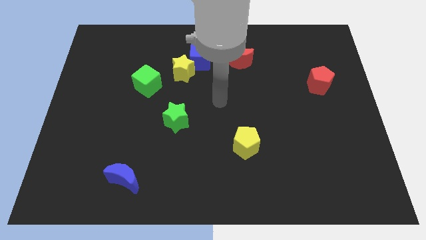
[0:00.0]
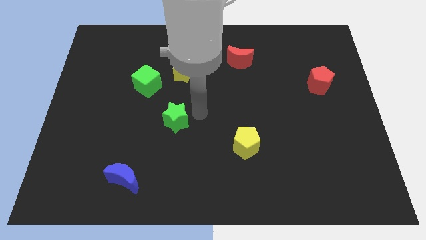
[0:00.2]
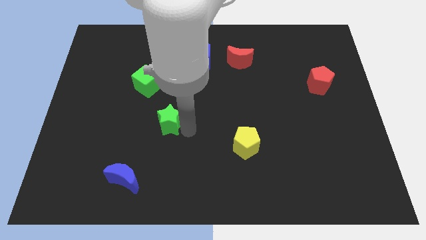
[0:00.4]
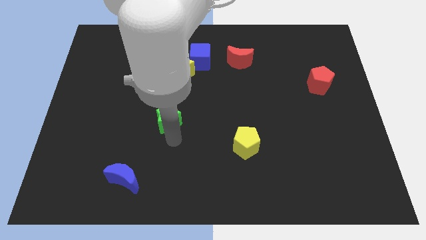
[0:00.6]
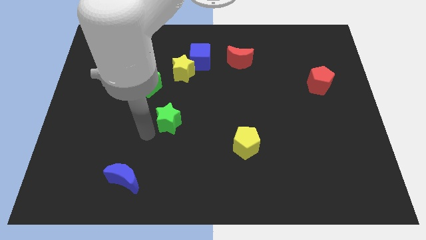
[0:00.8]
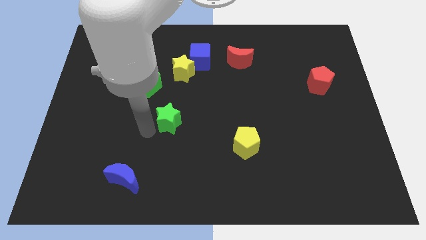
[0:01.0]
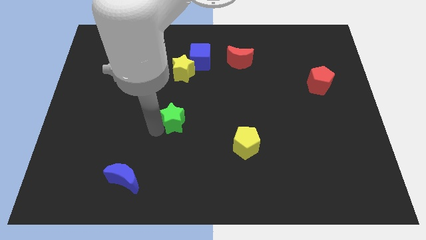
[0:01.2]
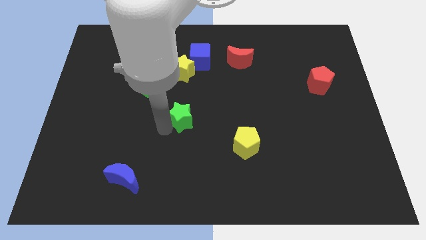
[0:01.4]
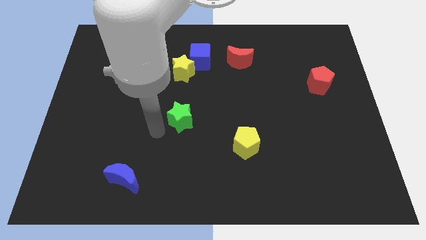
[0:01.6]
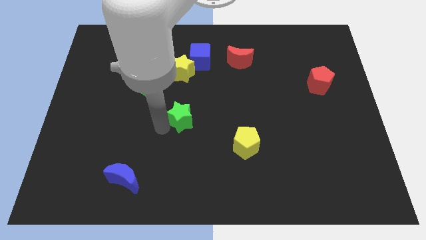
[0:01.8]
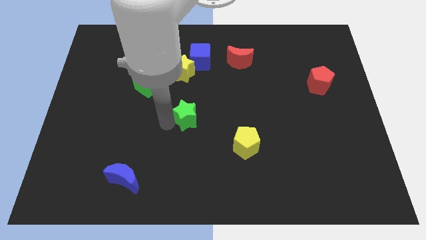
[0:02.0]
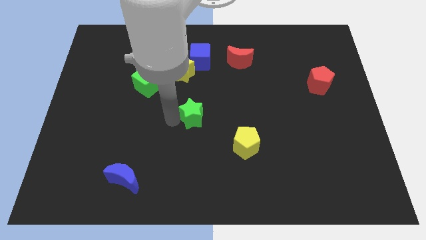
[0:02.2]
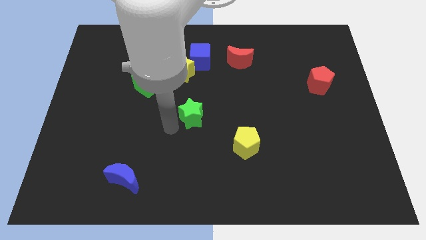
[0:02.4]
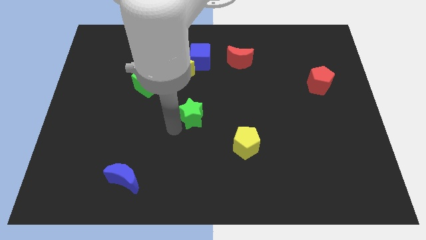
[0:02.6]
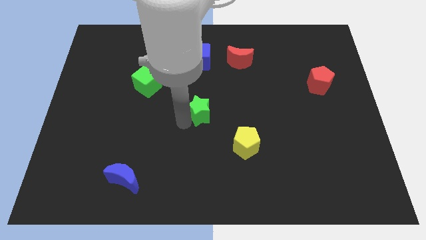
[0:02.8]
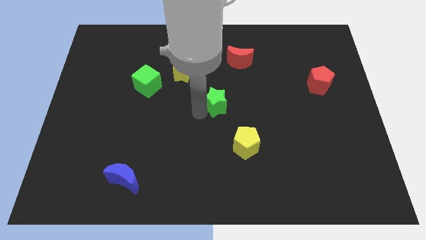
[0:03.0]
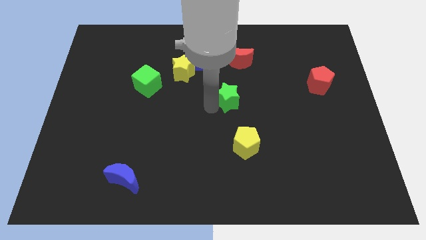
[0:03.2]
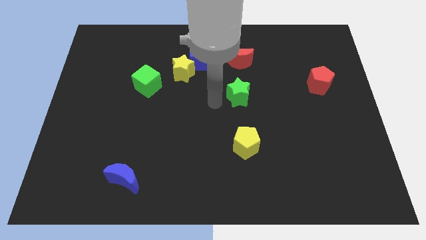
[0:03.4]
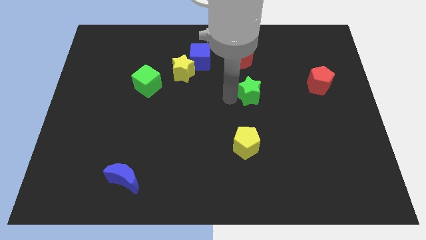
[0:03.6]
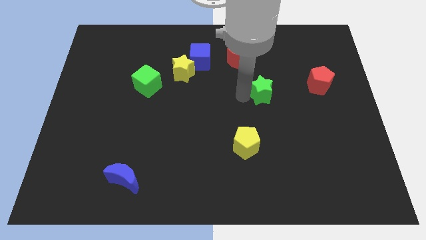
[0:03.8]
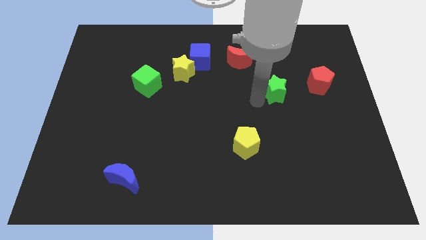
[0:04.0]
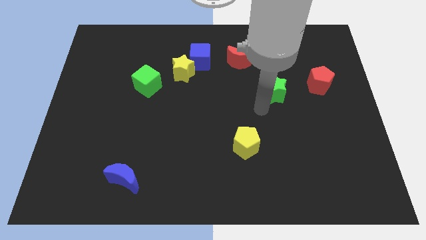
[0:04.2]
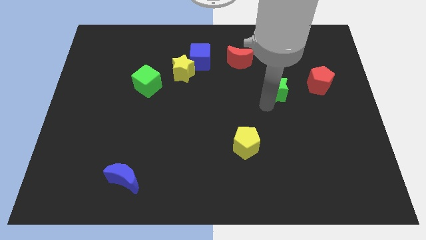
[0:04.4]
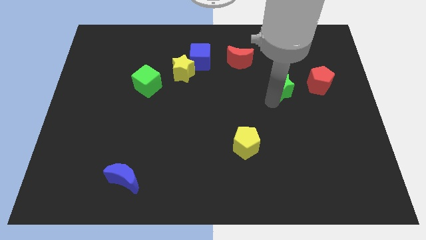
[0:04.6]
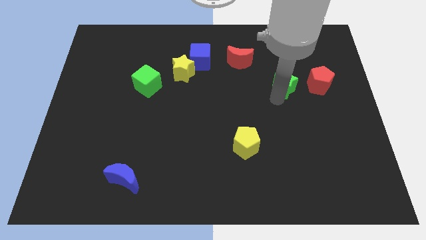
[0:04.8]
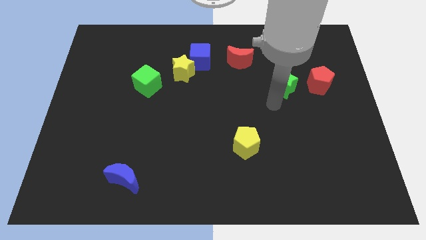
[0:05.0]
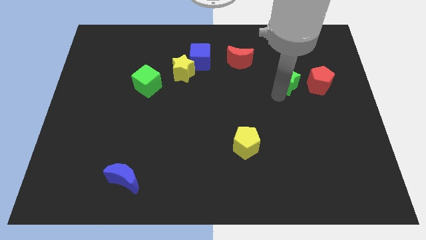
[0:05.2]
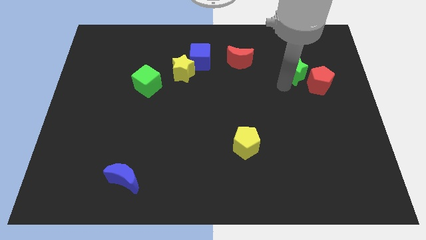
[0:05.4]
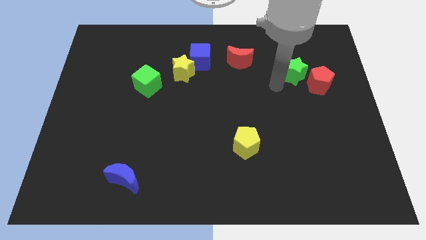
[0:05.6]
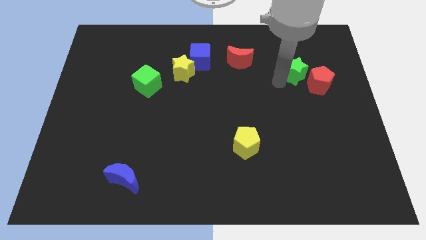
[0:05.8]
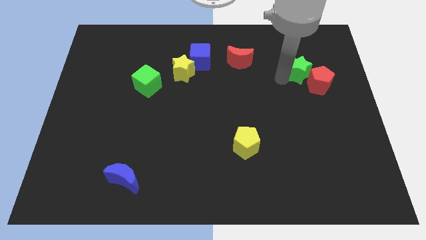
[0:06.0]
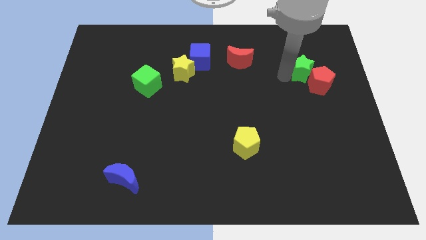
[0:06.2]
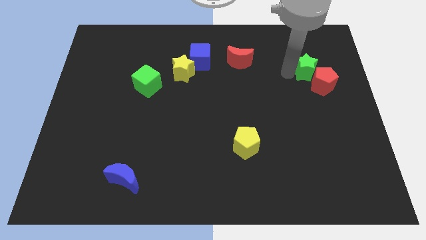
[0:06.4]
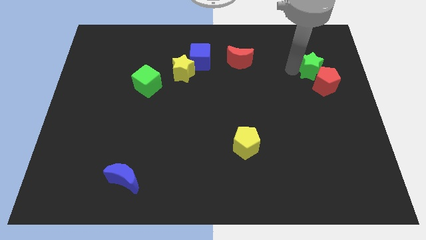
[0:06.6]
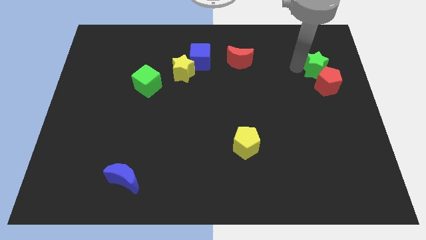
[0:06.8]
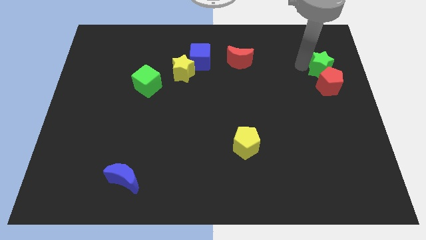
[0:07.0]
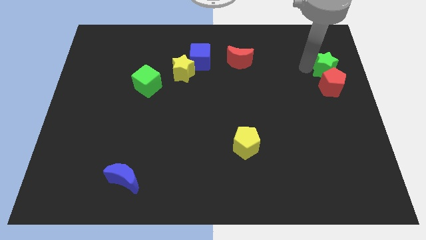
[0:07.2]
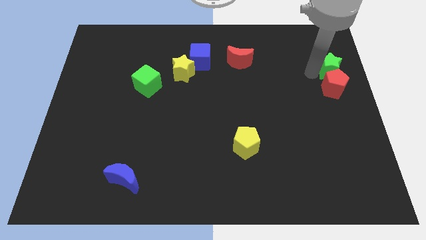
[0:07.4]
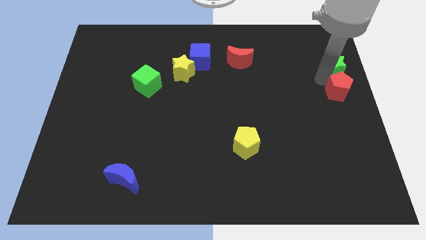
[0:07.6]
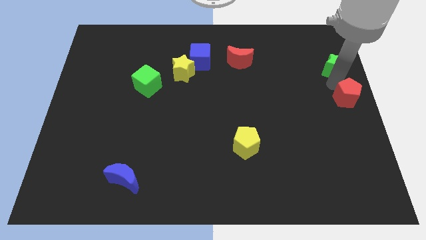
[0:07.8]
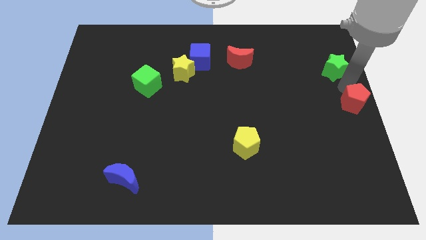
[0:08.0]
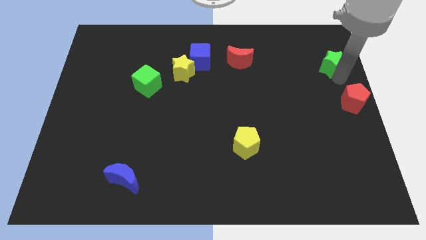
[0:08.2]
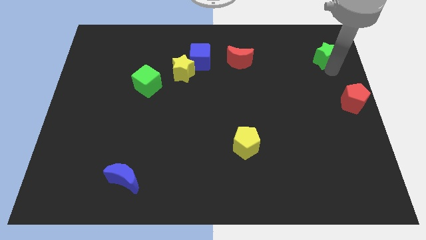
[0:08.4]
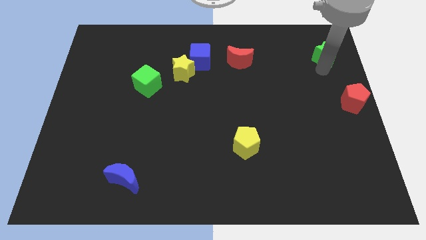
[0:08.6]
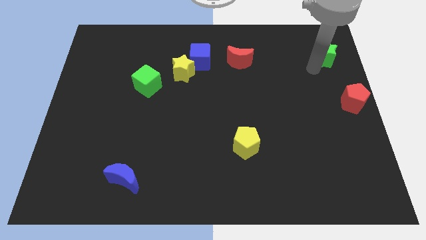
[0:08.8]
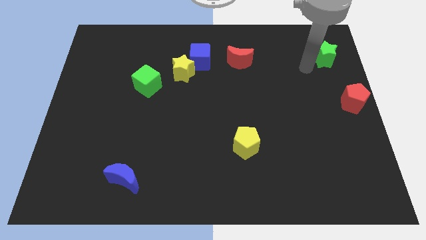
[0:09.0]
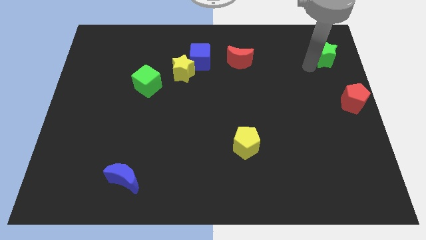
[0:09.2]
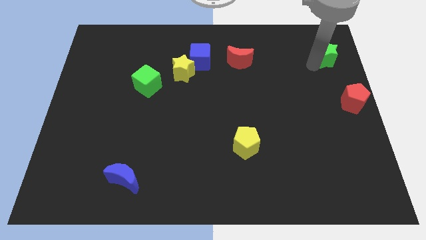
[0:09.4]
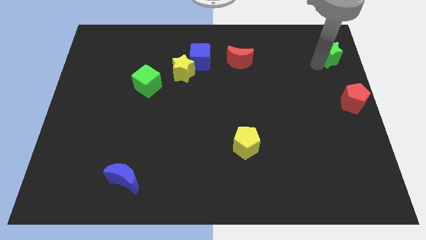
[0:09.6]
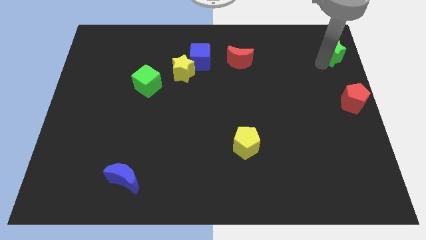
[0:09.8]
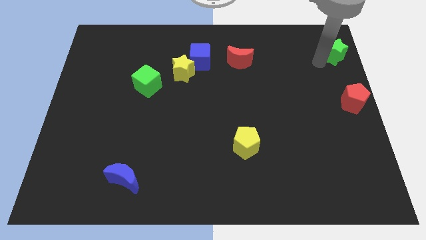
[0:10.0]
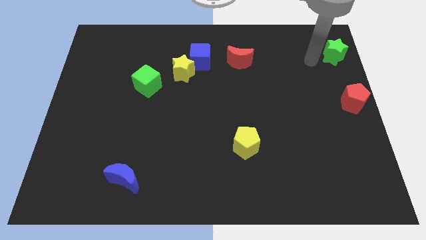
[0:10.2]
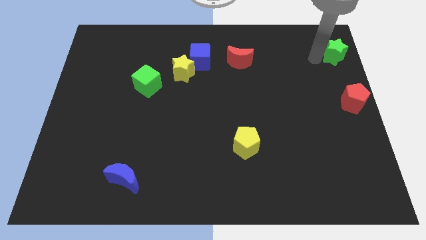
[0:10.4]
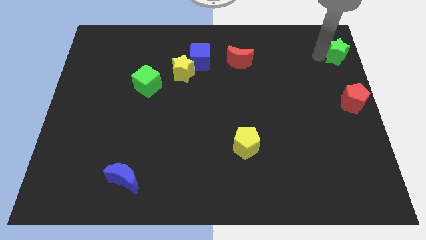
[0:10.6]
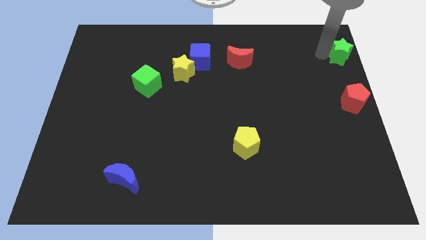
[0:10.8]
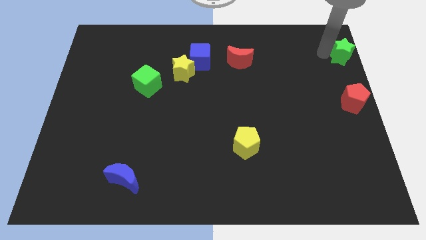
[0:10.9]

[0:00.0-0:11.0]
slide the green star to the top right corner
